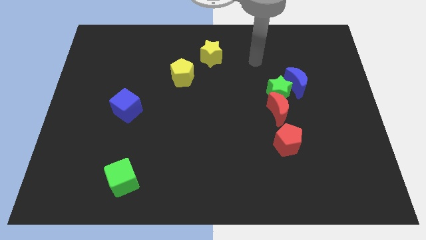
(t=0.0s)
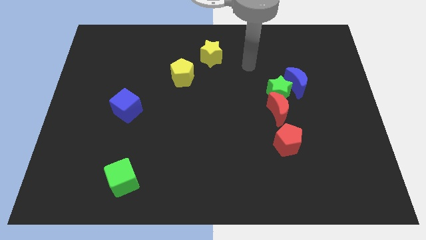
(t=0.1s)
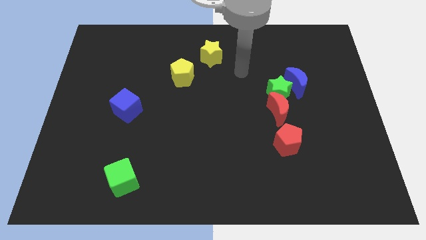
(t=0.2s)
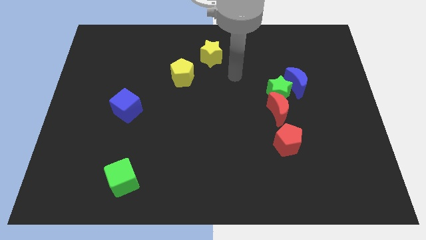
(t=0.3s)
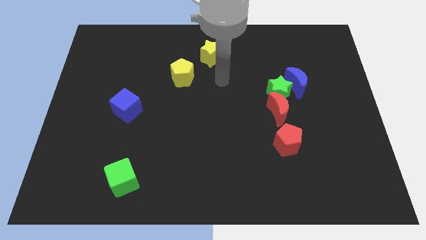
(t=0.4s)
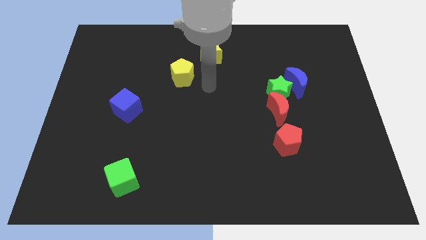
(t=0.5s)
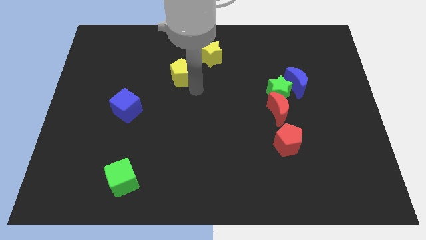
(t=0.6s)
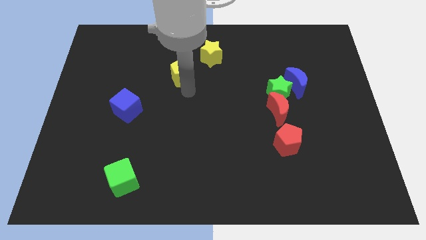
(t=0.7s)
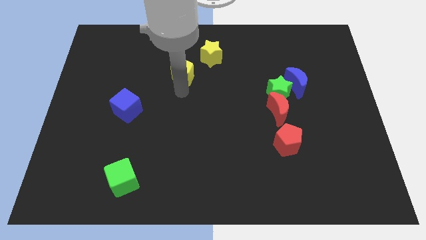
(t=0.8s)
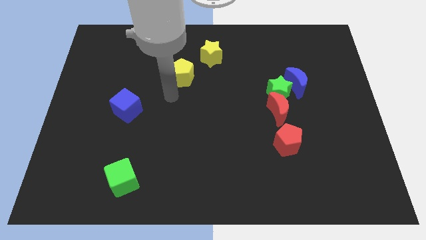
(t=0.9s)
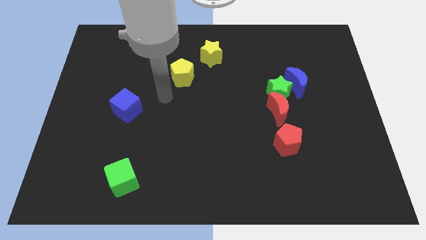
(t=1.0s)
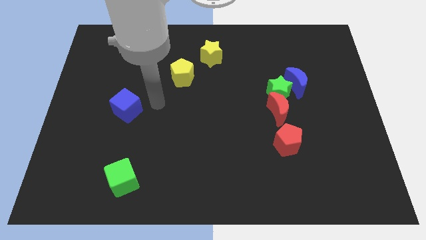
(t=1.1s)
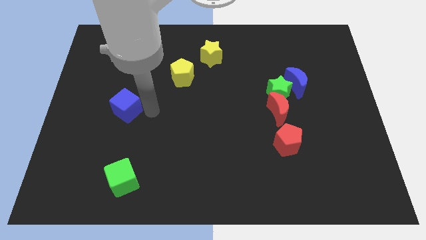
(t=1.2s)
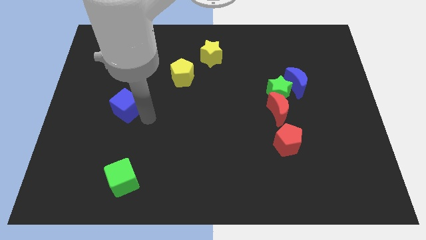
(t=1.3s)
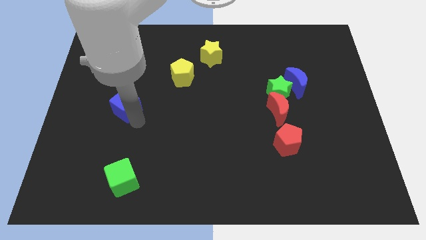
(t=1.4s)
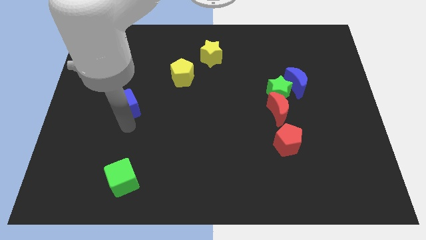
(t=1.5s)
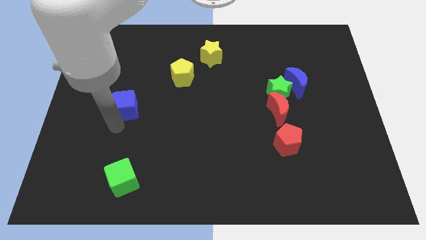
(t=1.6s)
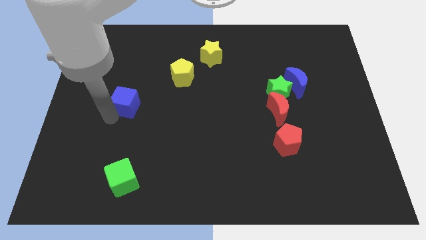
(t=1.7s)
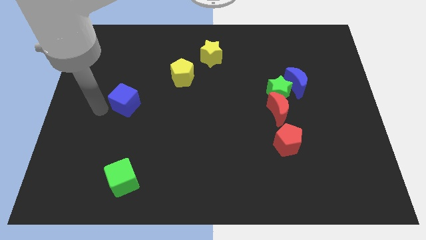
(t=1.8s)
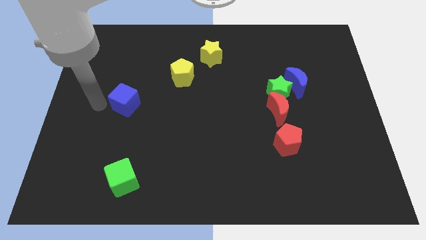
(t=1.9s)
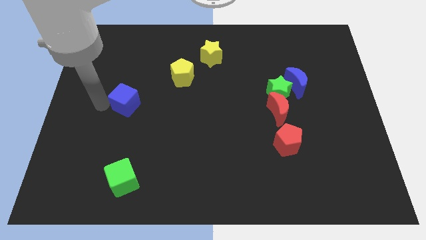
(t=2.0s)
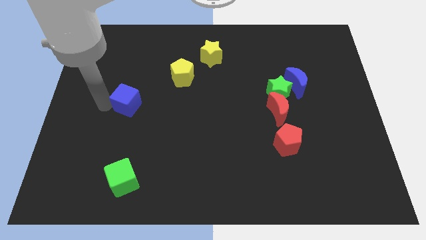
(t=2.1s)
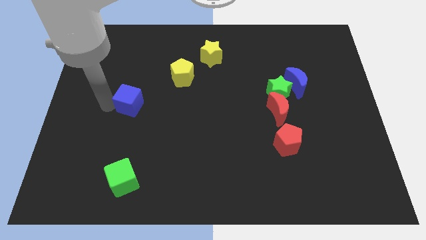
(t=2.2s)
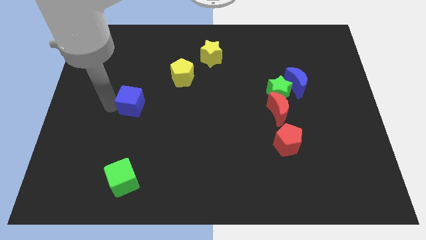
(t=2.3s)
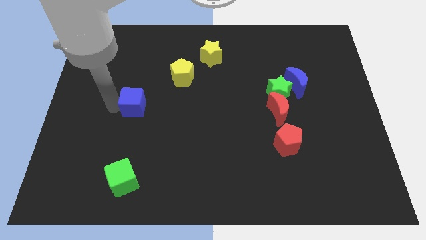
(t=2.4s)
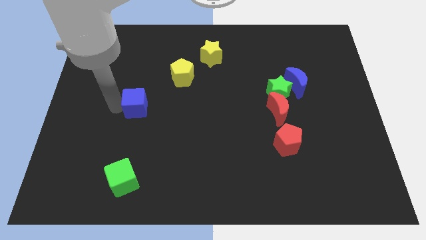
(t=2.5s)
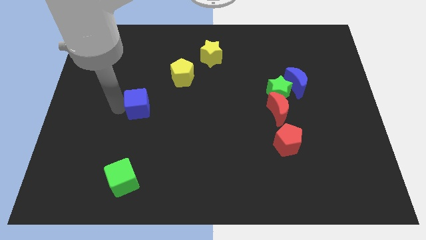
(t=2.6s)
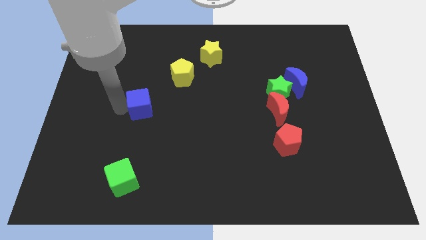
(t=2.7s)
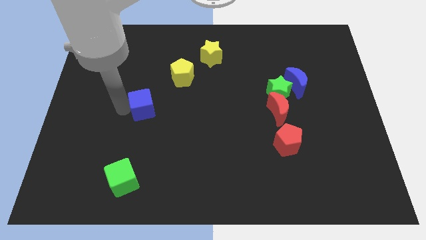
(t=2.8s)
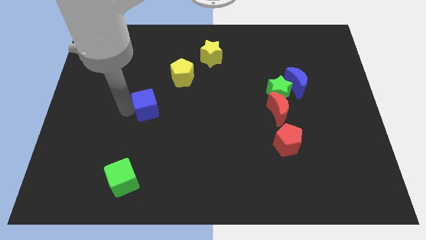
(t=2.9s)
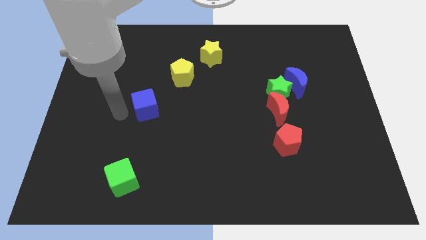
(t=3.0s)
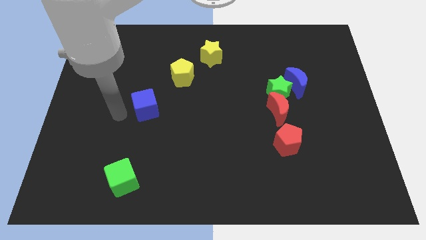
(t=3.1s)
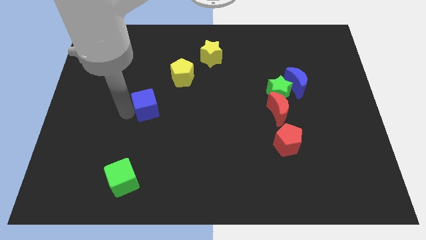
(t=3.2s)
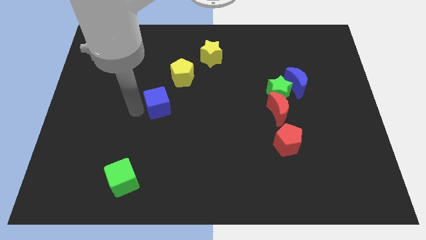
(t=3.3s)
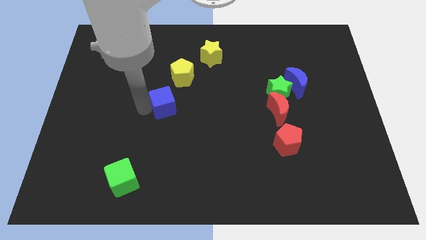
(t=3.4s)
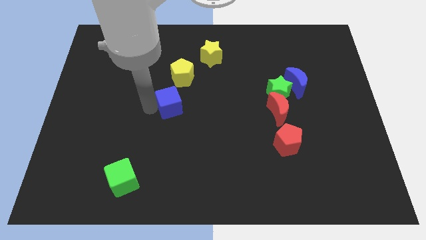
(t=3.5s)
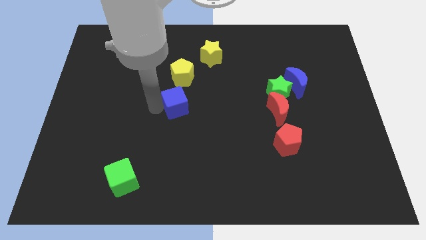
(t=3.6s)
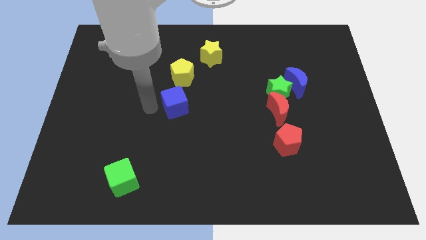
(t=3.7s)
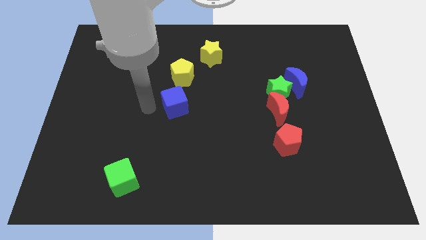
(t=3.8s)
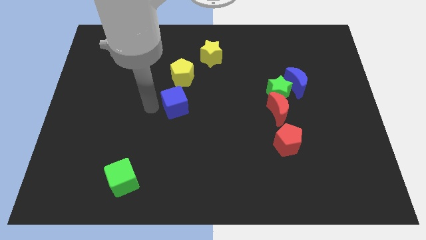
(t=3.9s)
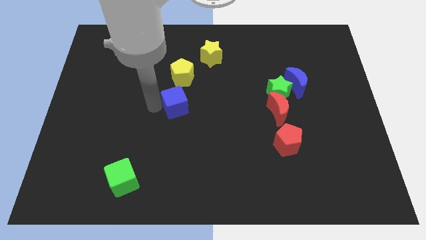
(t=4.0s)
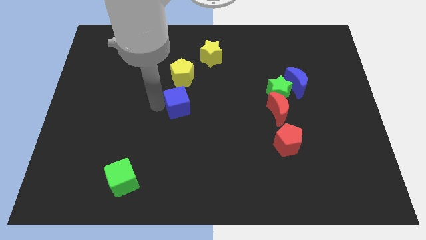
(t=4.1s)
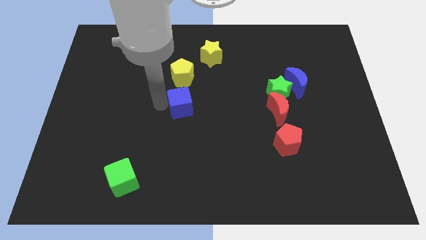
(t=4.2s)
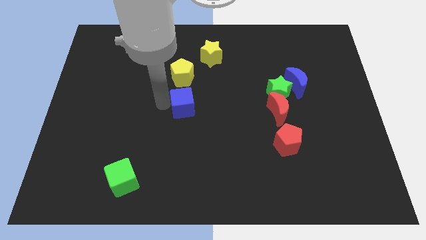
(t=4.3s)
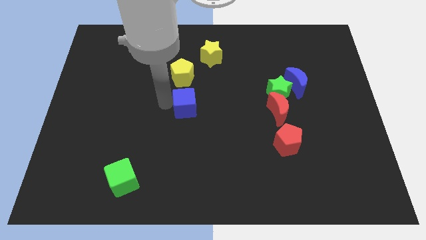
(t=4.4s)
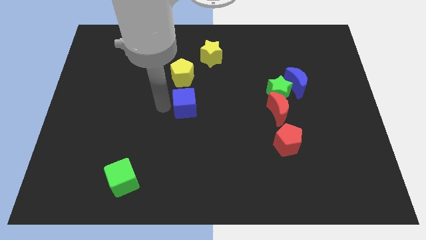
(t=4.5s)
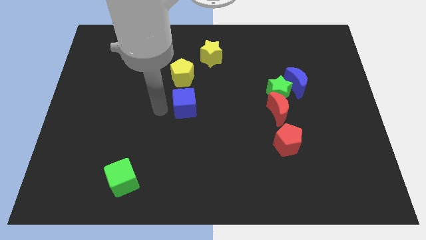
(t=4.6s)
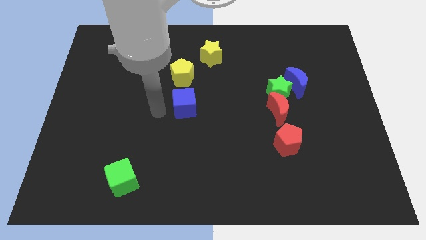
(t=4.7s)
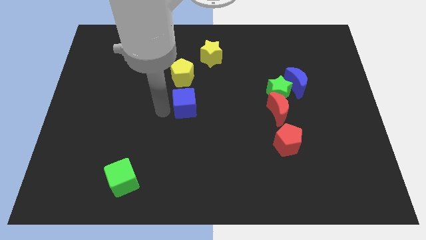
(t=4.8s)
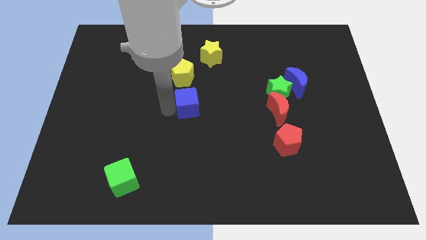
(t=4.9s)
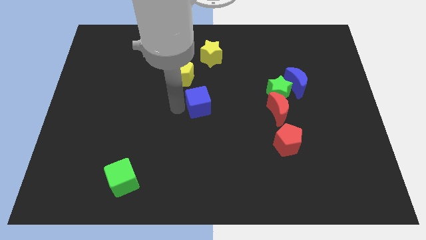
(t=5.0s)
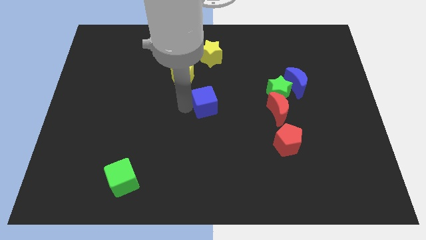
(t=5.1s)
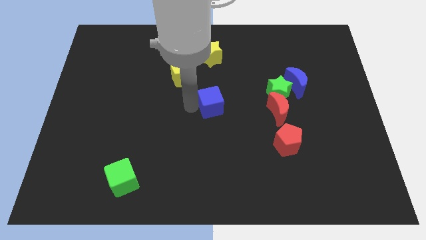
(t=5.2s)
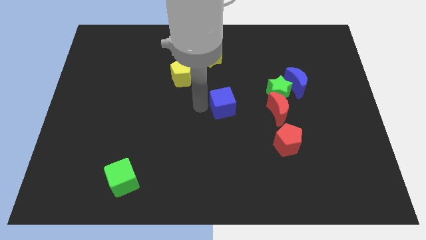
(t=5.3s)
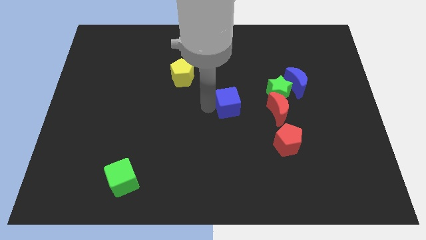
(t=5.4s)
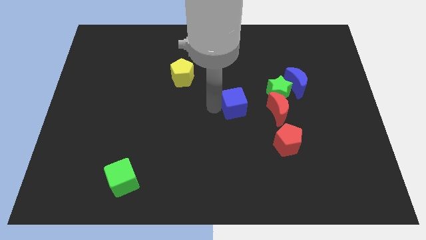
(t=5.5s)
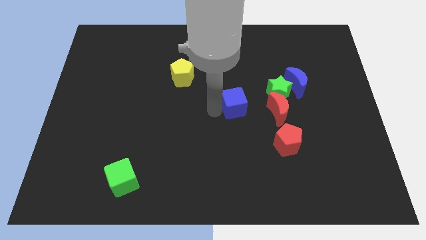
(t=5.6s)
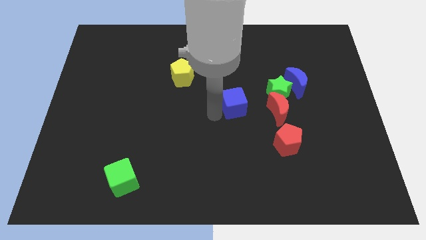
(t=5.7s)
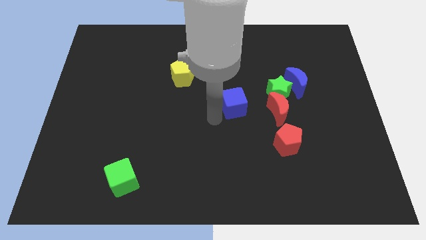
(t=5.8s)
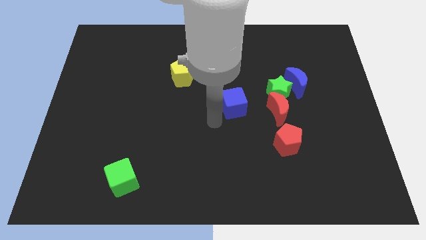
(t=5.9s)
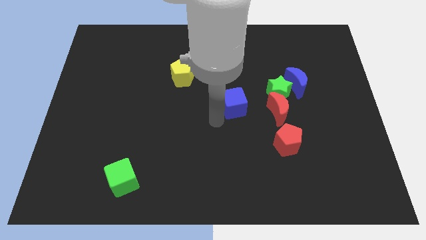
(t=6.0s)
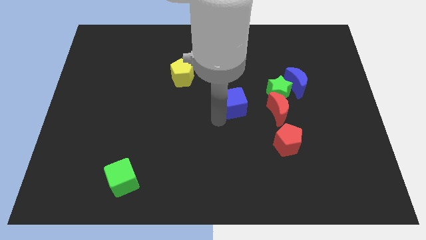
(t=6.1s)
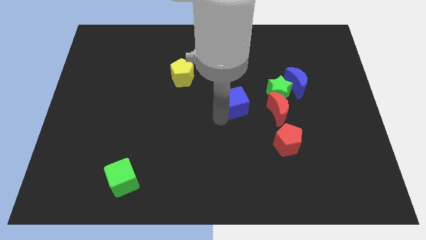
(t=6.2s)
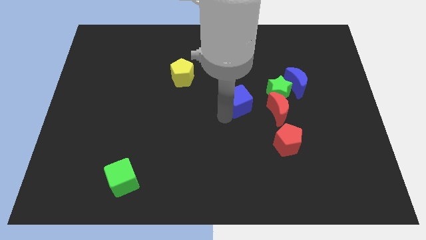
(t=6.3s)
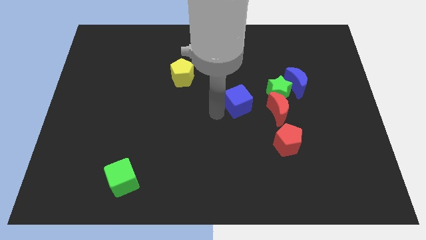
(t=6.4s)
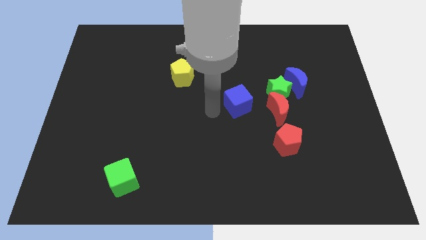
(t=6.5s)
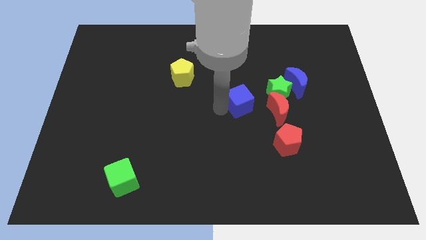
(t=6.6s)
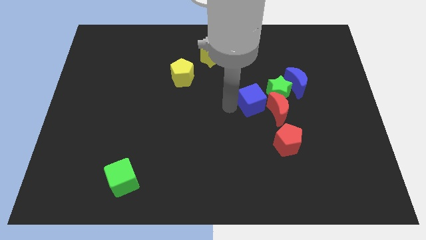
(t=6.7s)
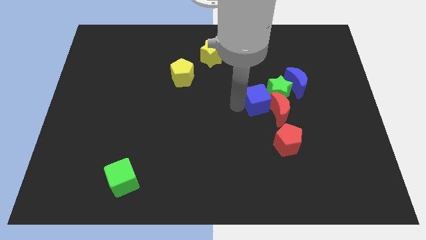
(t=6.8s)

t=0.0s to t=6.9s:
move the blue cube close to the green star
